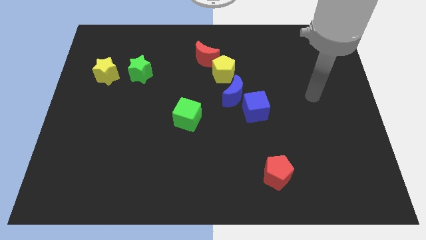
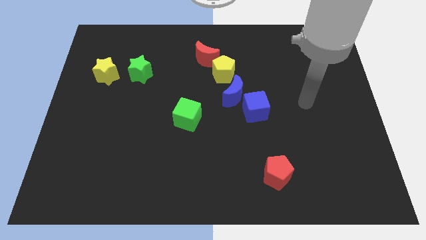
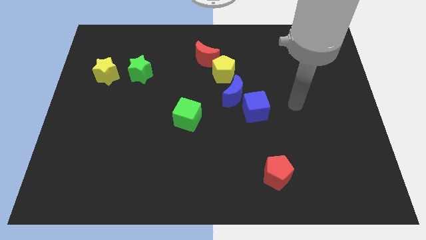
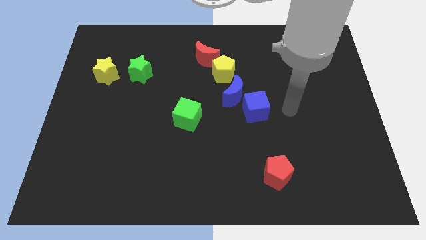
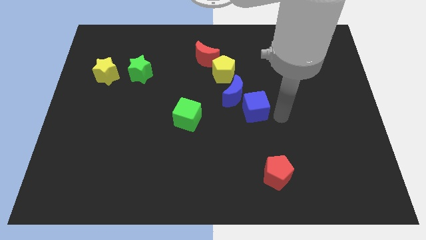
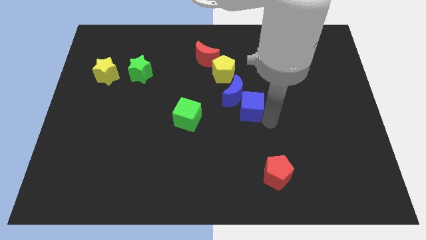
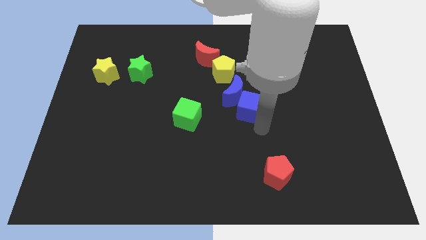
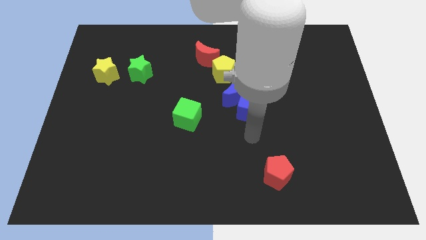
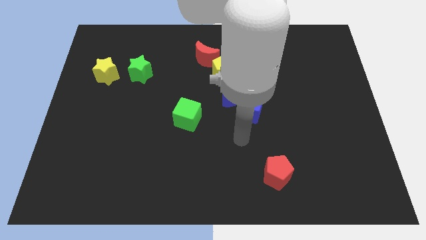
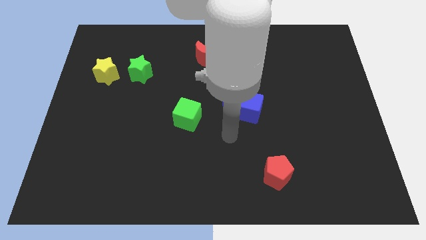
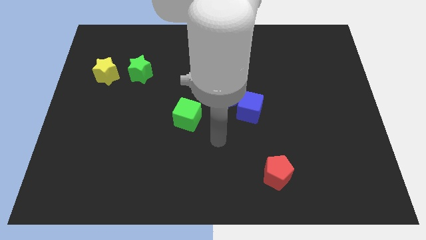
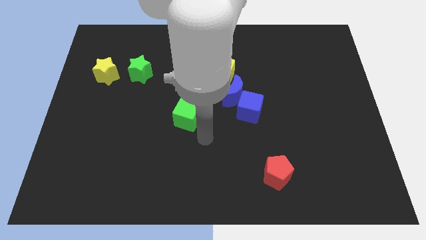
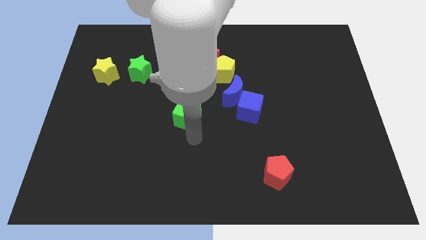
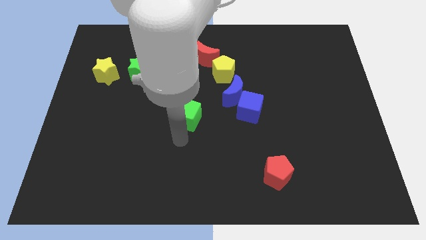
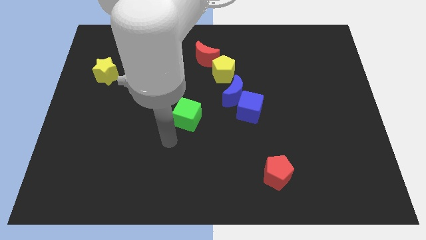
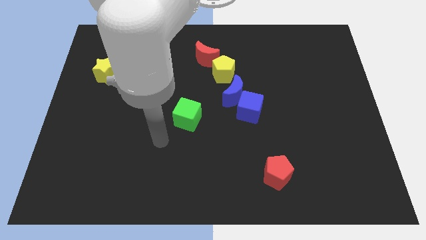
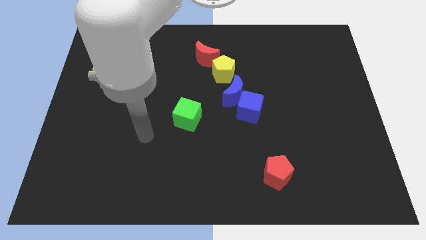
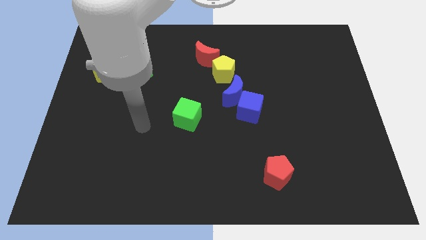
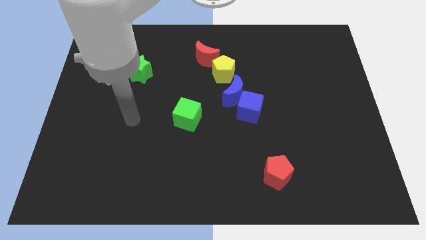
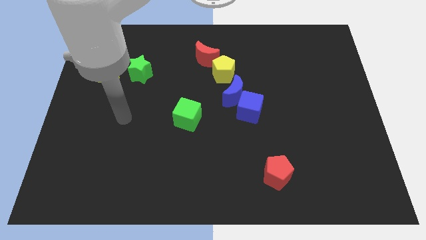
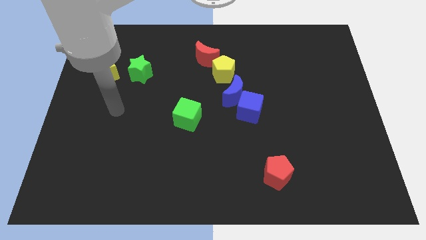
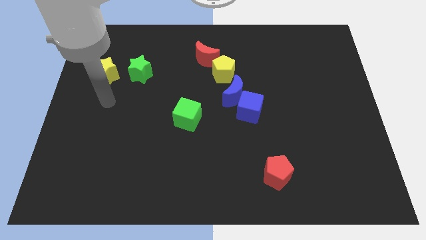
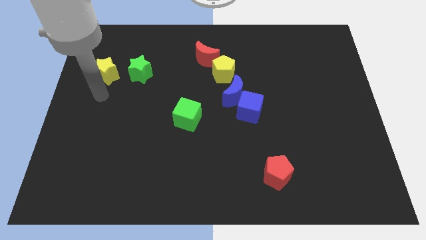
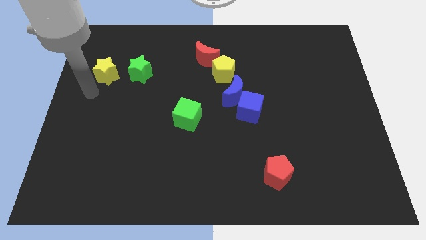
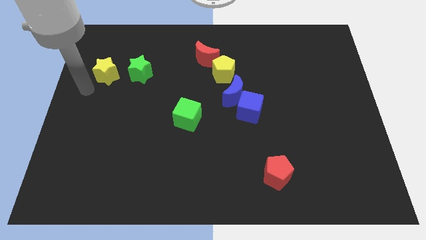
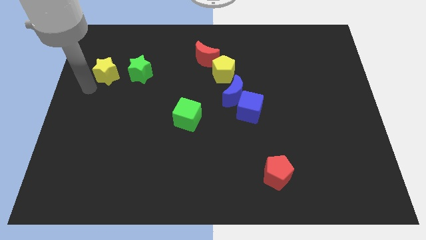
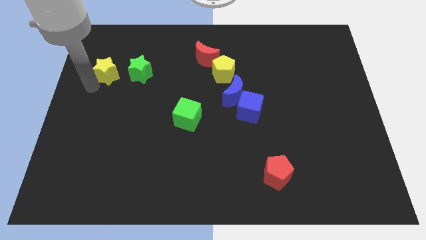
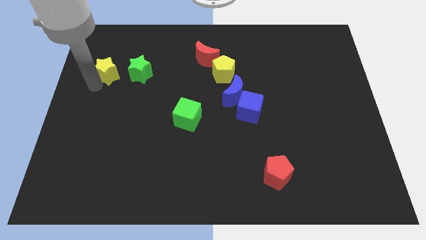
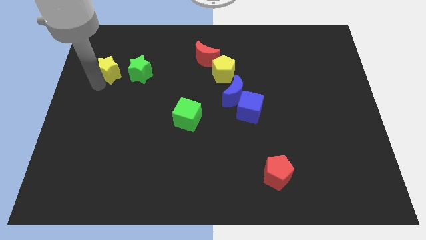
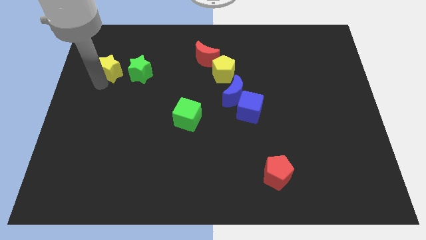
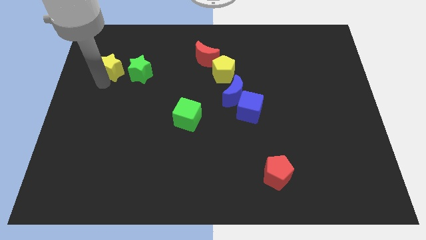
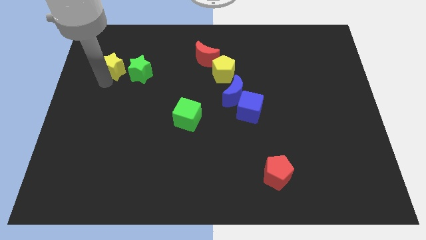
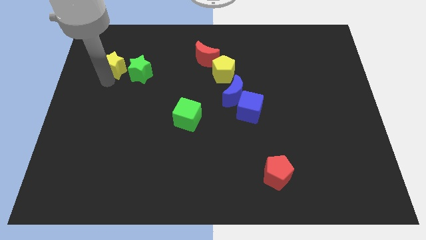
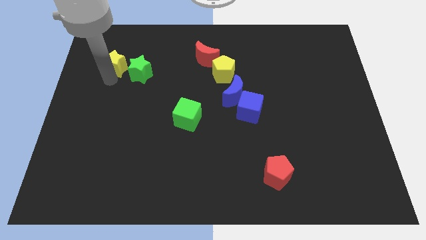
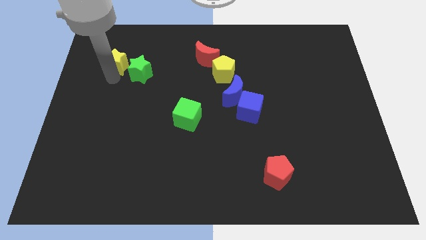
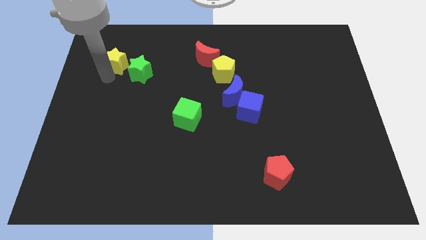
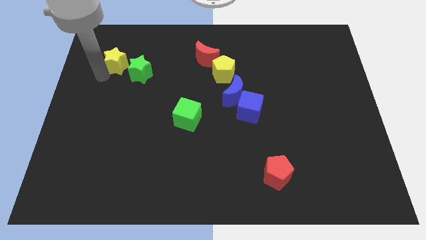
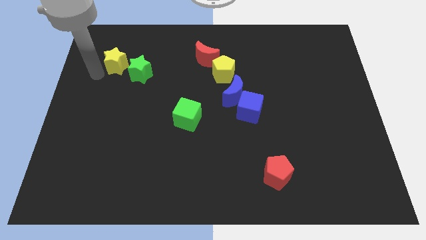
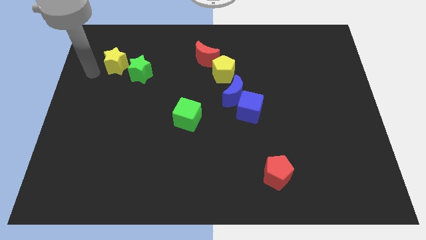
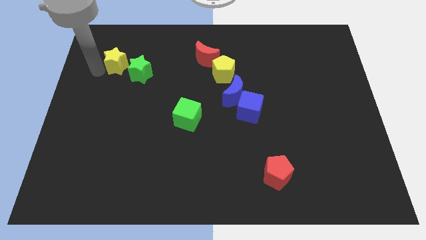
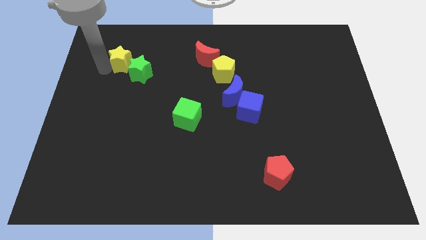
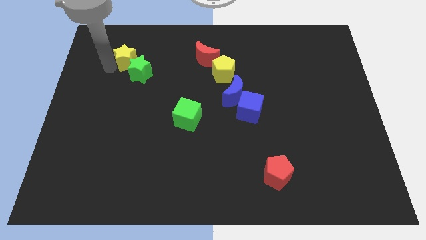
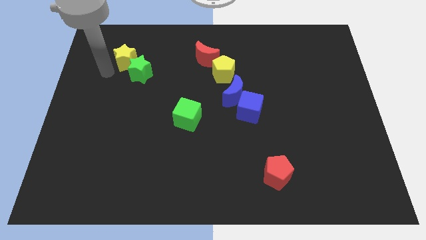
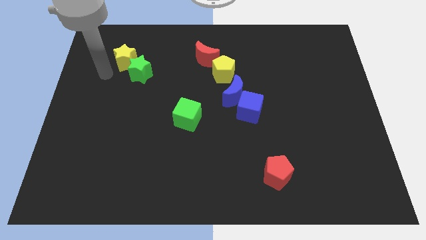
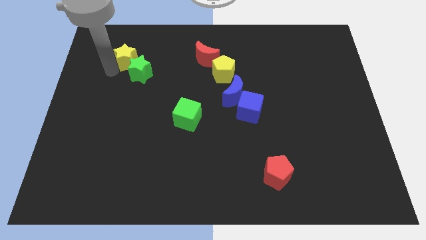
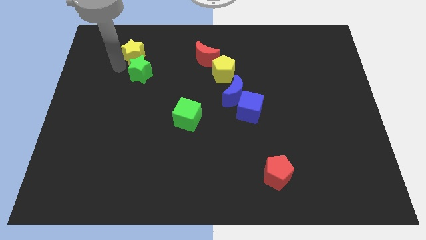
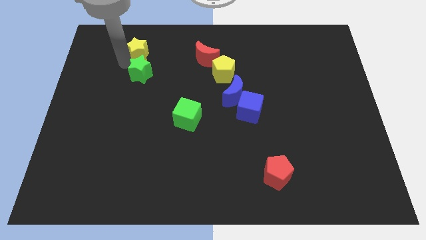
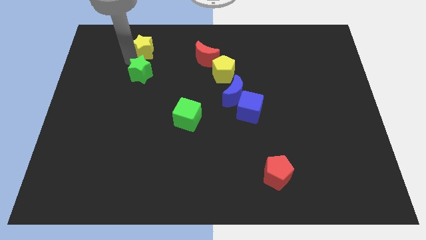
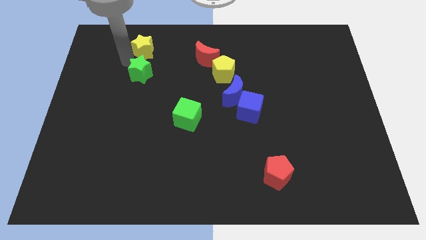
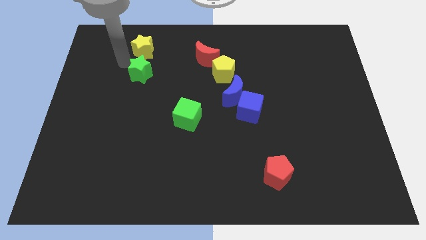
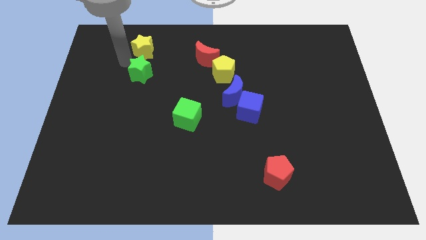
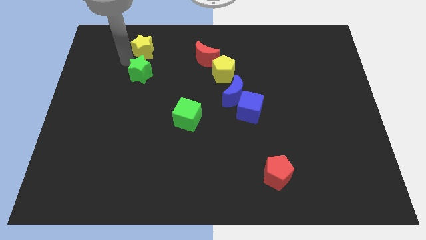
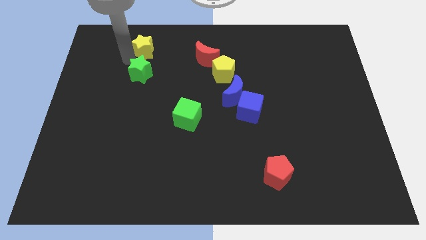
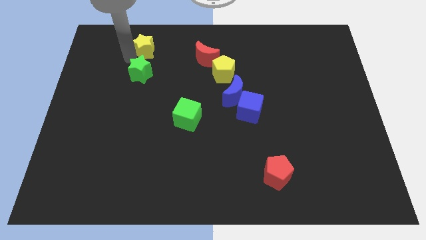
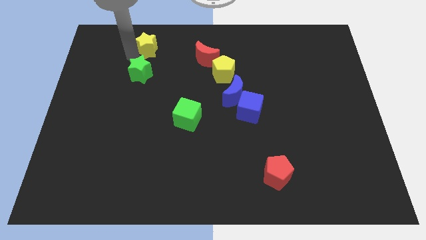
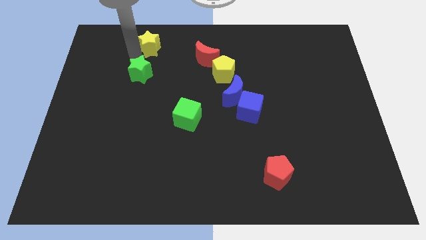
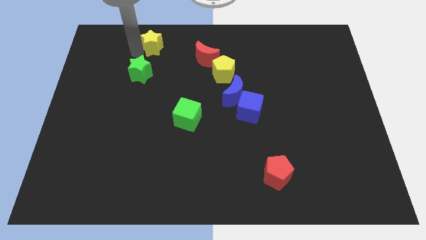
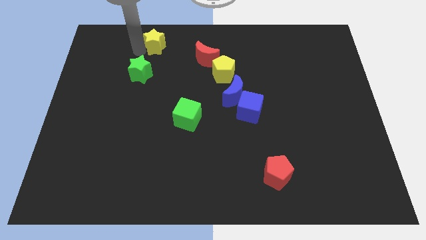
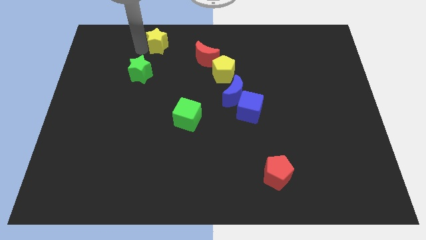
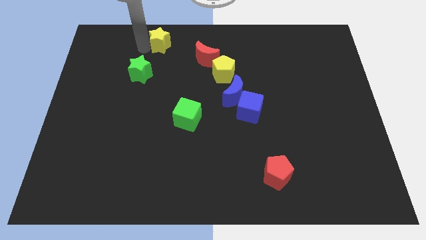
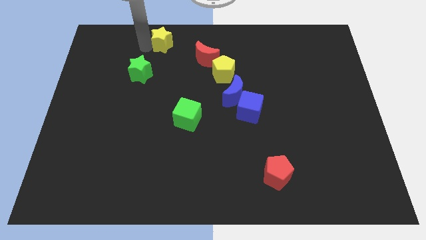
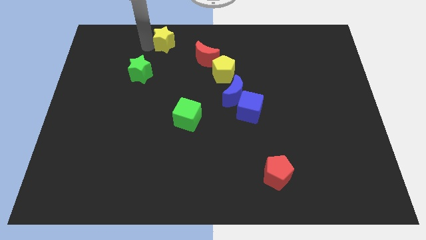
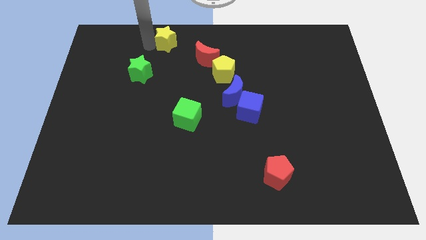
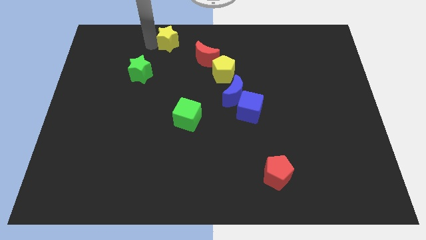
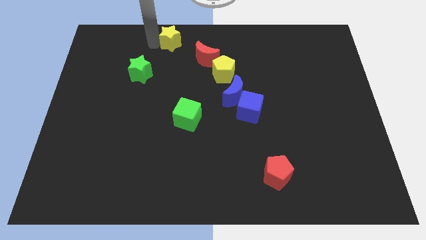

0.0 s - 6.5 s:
slide the yellow star to the top
